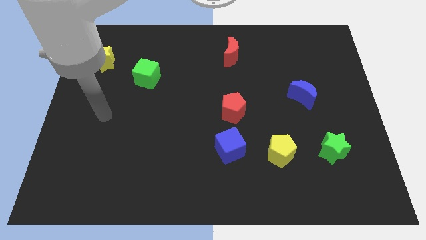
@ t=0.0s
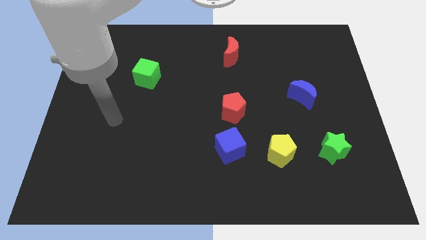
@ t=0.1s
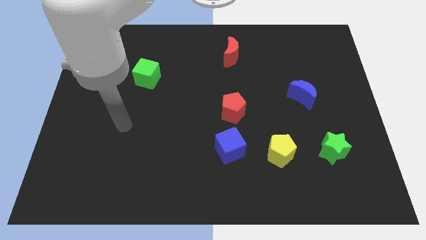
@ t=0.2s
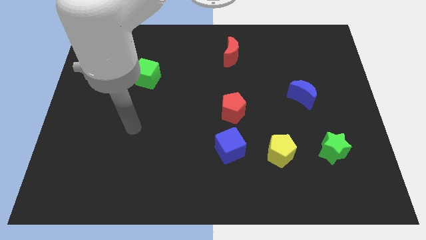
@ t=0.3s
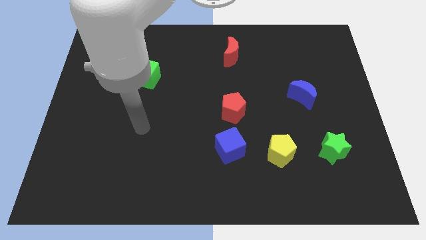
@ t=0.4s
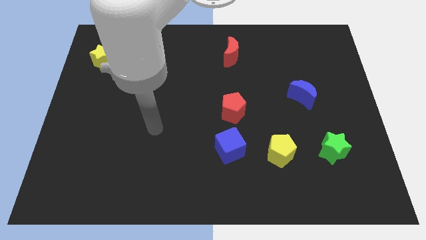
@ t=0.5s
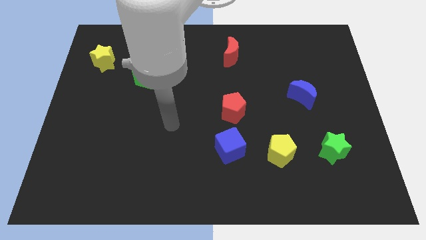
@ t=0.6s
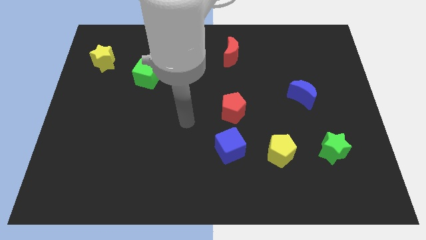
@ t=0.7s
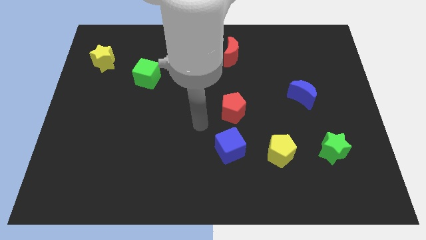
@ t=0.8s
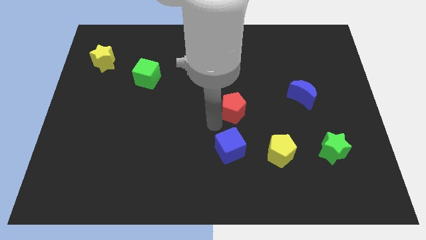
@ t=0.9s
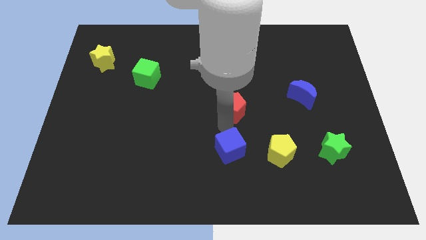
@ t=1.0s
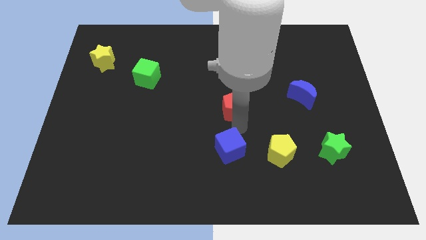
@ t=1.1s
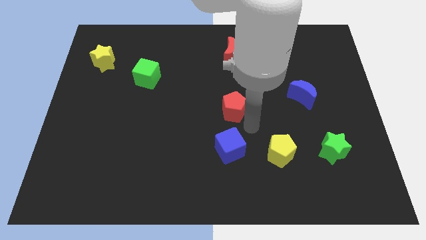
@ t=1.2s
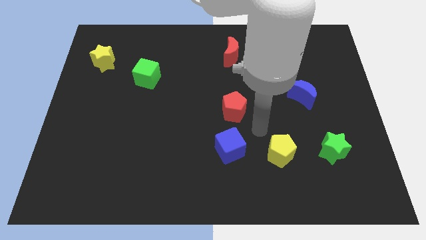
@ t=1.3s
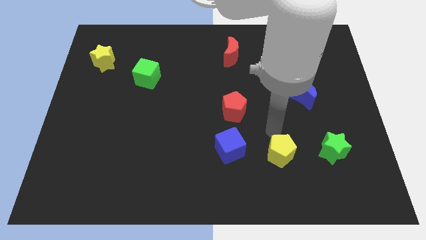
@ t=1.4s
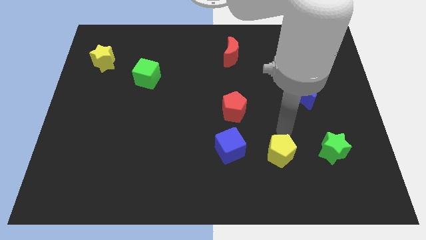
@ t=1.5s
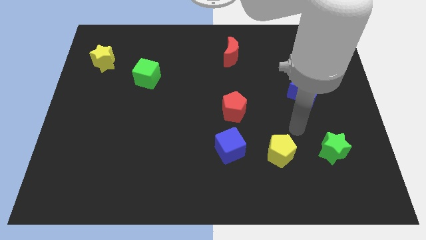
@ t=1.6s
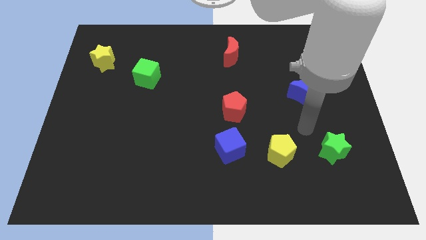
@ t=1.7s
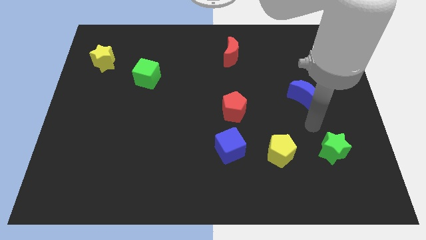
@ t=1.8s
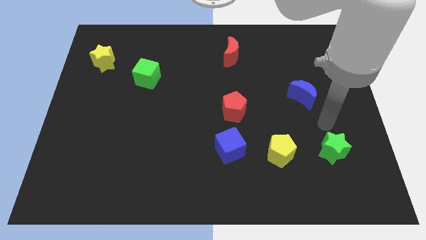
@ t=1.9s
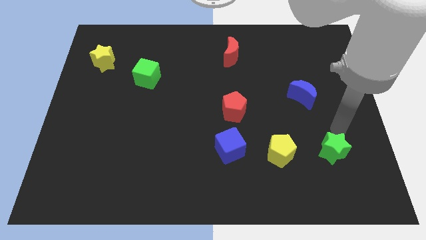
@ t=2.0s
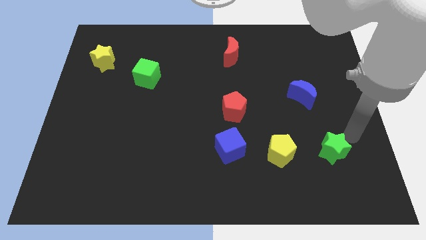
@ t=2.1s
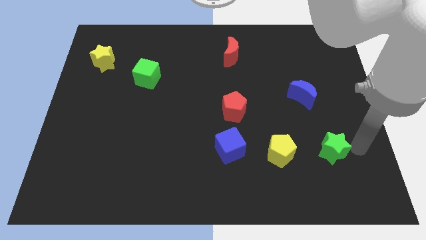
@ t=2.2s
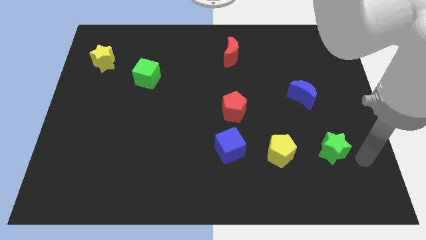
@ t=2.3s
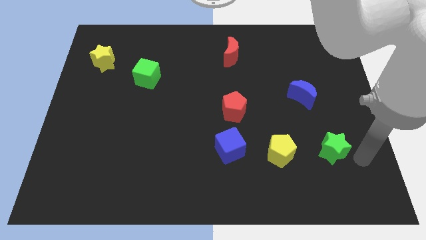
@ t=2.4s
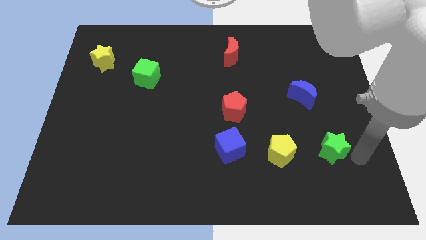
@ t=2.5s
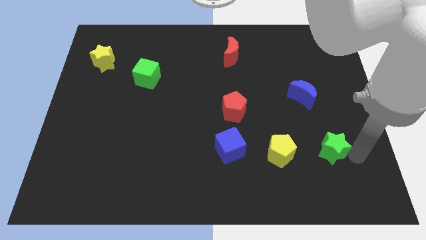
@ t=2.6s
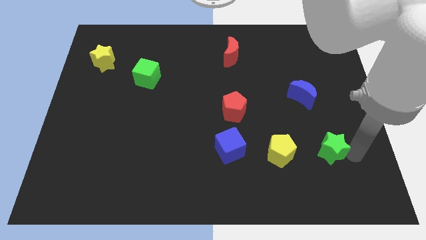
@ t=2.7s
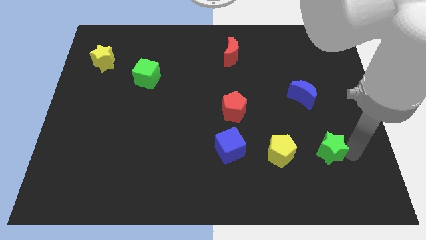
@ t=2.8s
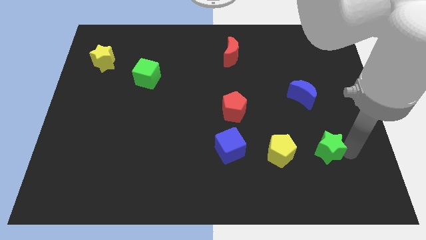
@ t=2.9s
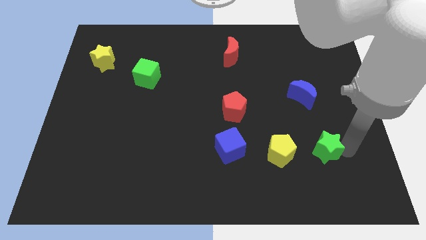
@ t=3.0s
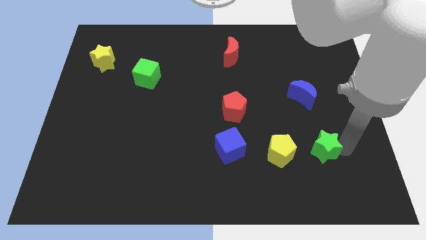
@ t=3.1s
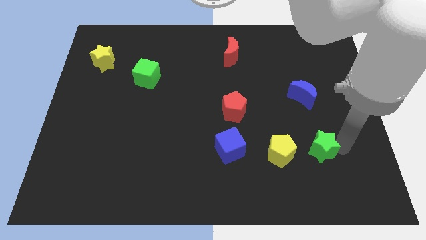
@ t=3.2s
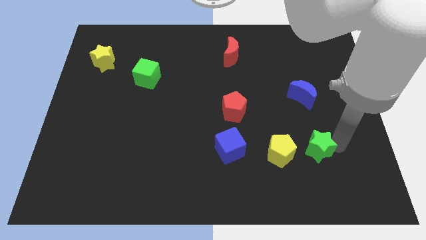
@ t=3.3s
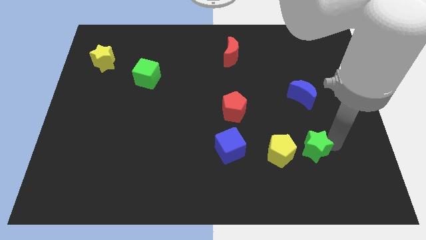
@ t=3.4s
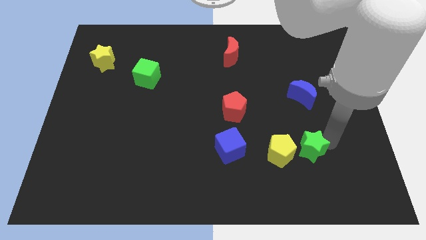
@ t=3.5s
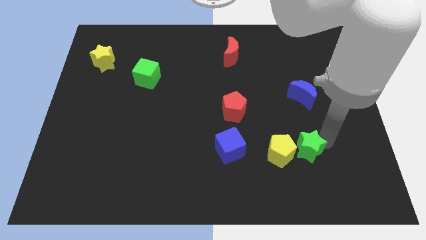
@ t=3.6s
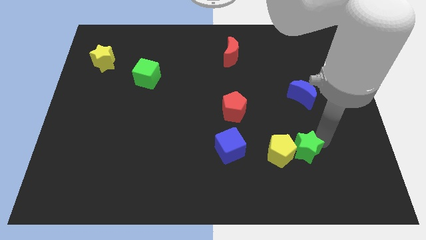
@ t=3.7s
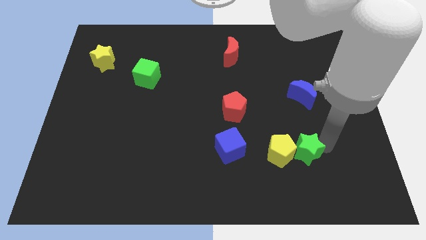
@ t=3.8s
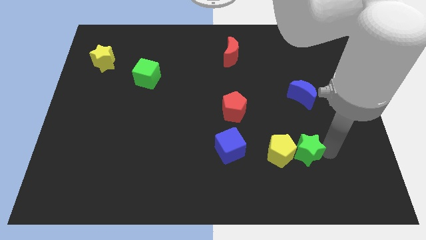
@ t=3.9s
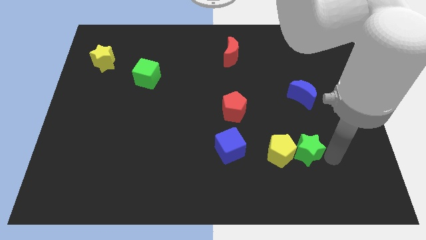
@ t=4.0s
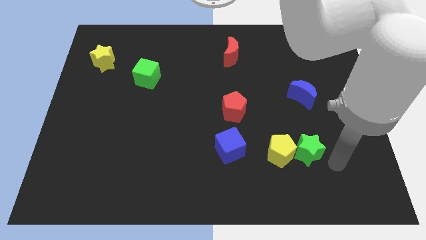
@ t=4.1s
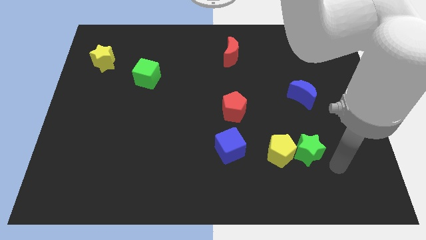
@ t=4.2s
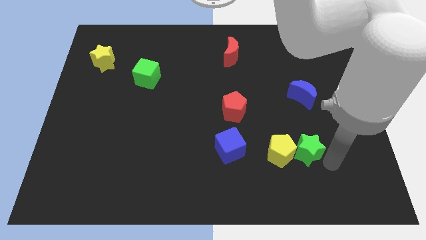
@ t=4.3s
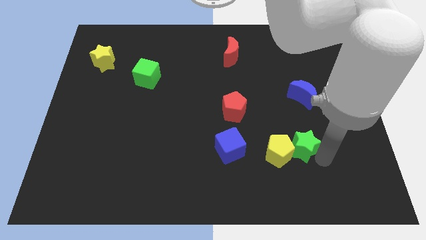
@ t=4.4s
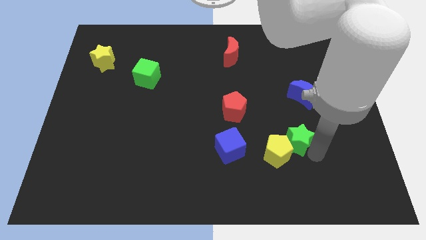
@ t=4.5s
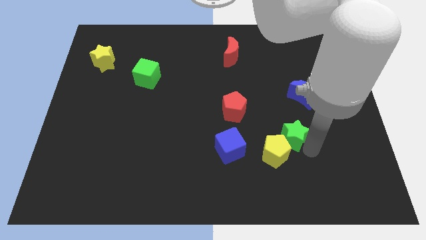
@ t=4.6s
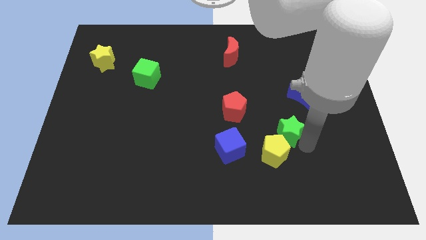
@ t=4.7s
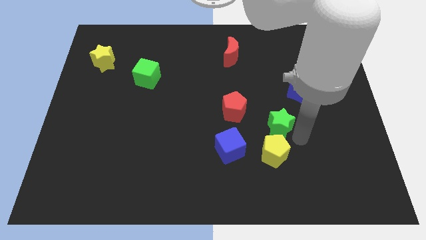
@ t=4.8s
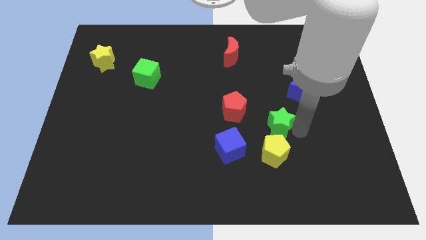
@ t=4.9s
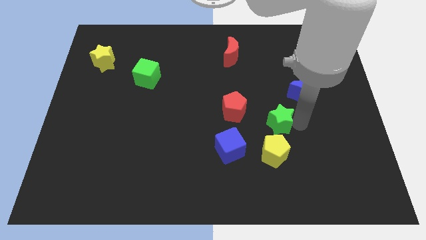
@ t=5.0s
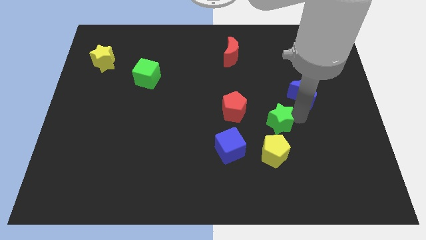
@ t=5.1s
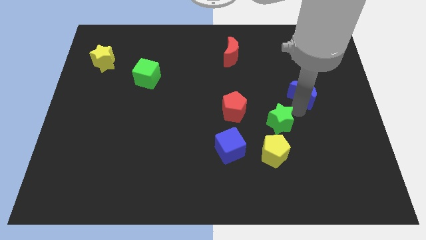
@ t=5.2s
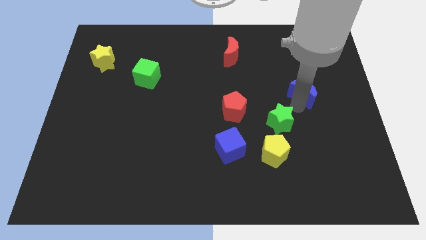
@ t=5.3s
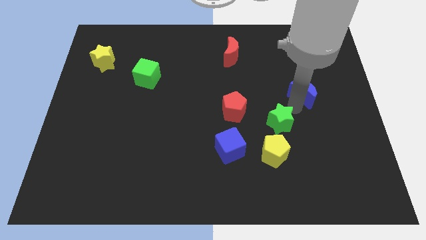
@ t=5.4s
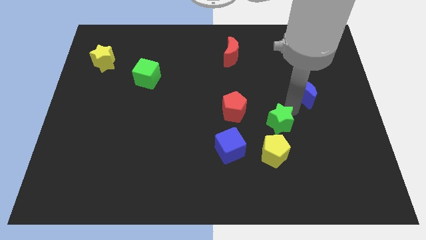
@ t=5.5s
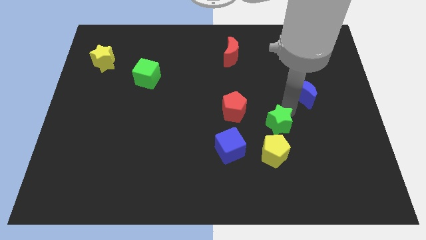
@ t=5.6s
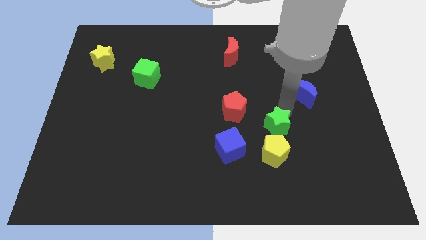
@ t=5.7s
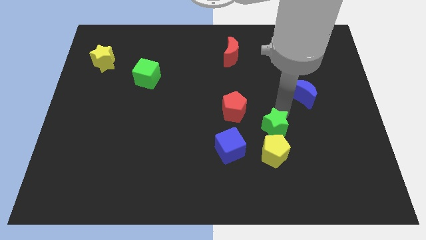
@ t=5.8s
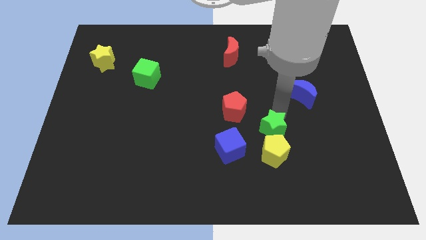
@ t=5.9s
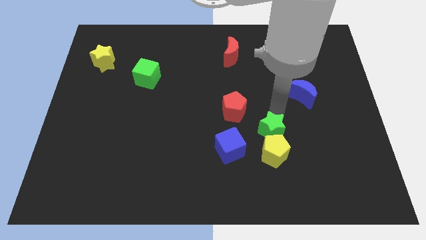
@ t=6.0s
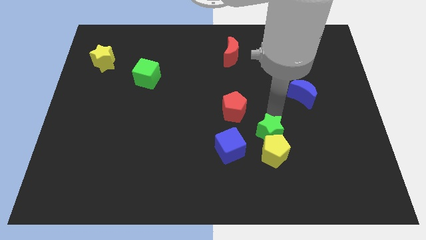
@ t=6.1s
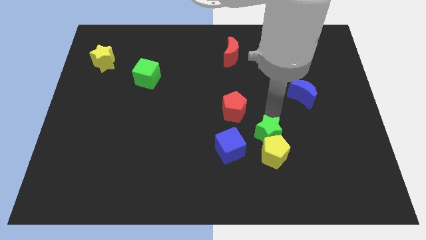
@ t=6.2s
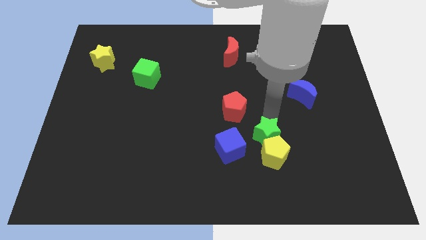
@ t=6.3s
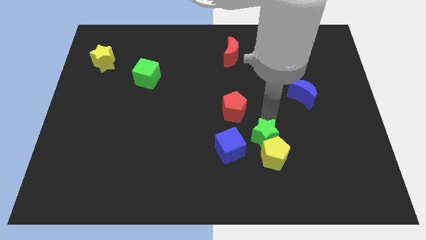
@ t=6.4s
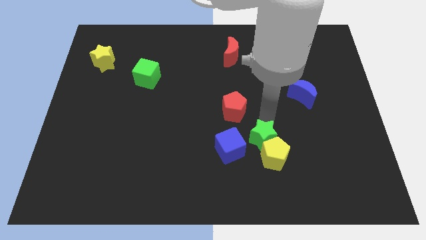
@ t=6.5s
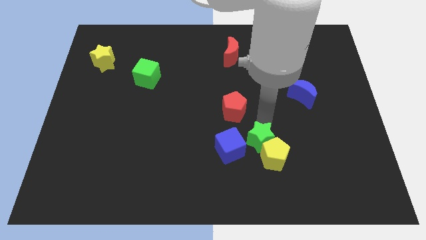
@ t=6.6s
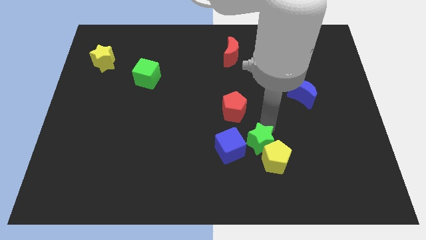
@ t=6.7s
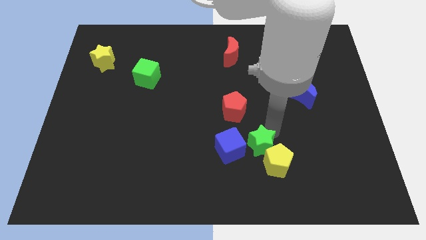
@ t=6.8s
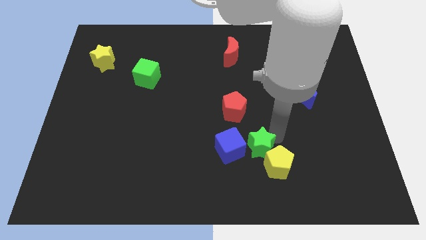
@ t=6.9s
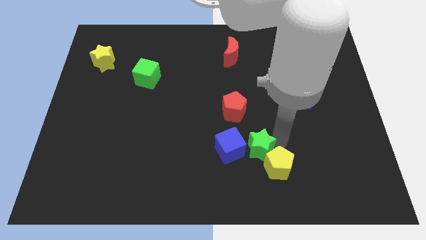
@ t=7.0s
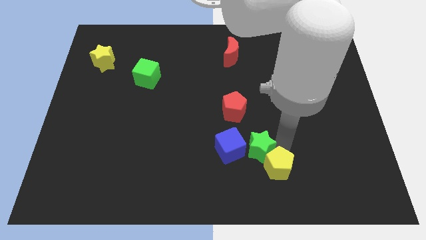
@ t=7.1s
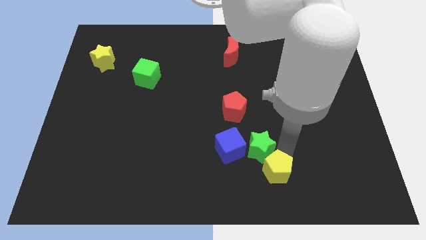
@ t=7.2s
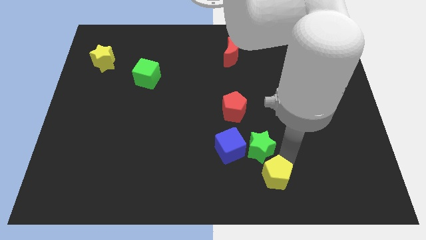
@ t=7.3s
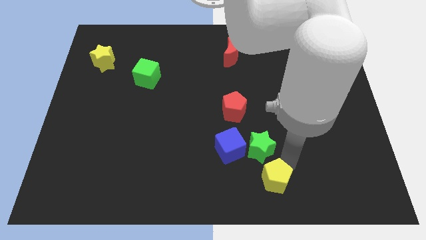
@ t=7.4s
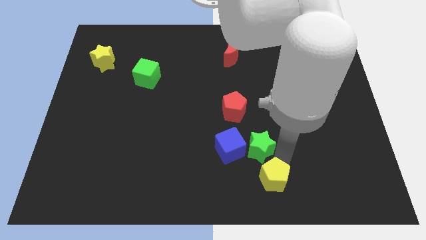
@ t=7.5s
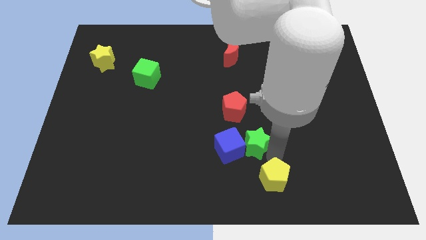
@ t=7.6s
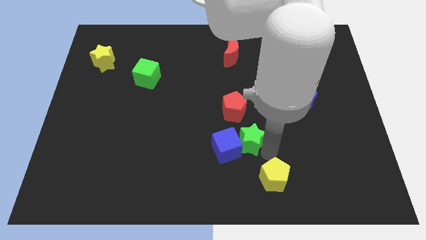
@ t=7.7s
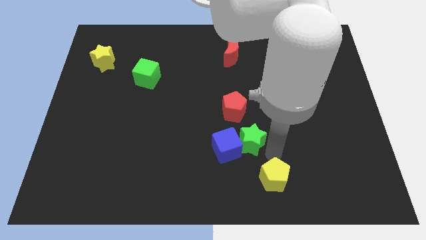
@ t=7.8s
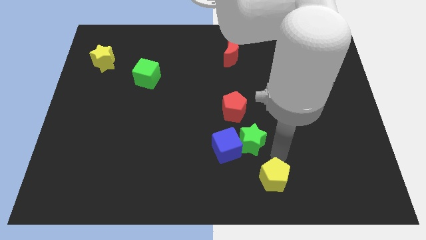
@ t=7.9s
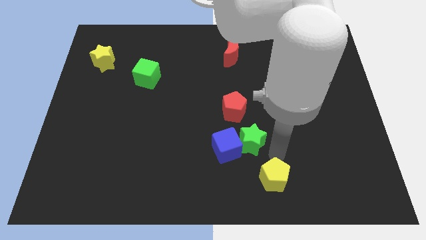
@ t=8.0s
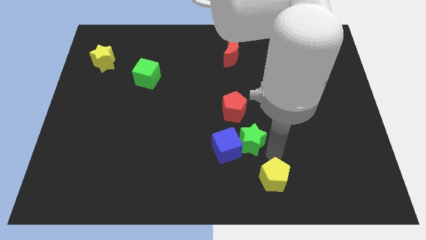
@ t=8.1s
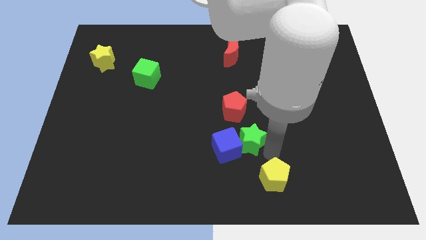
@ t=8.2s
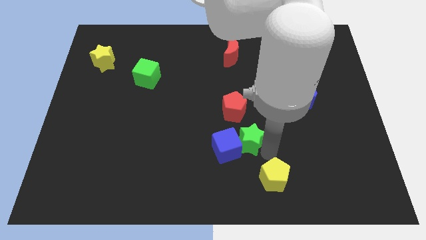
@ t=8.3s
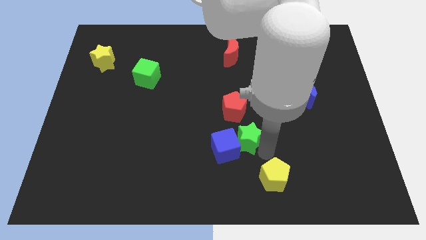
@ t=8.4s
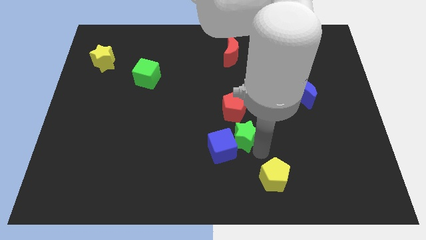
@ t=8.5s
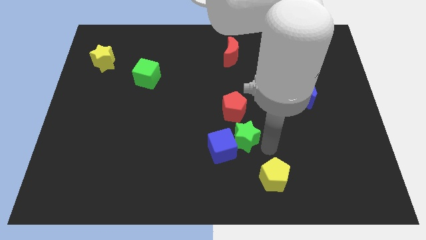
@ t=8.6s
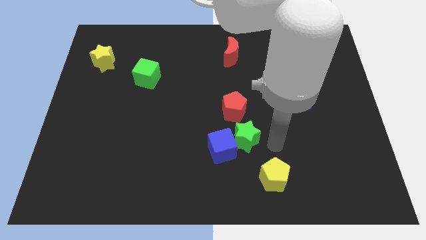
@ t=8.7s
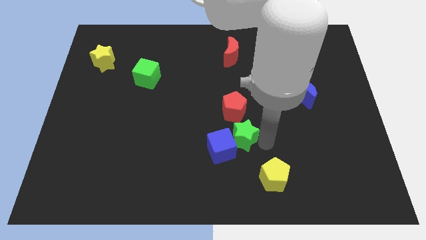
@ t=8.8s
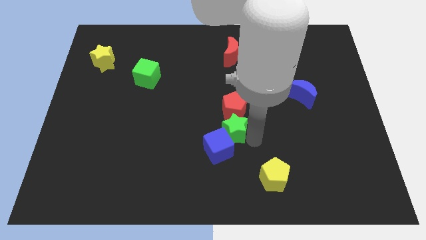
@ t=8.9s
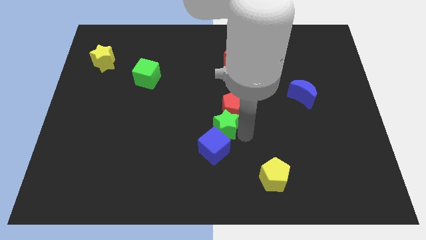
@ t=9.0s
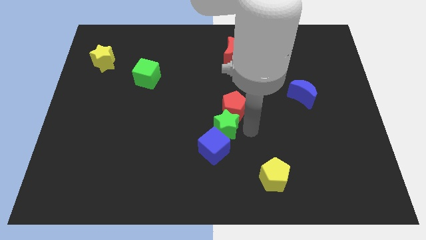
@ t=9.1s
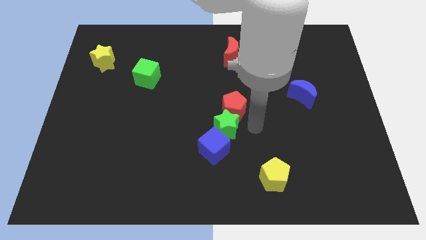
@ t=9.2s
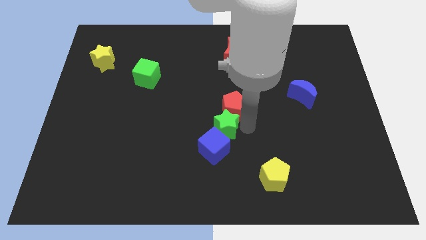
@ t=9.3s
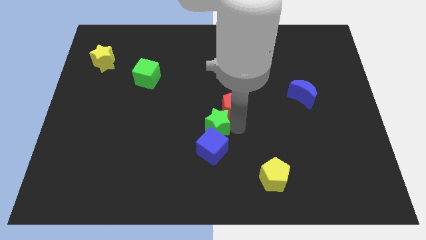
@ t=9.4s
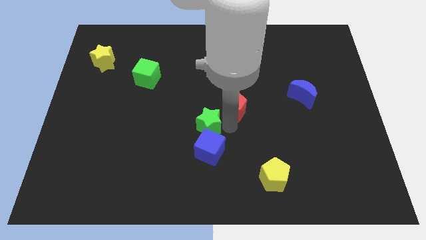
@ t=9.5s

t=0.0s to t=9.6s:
move the green star to the top left side of the blue cube
